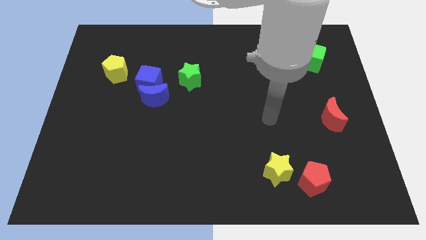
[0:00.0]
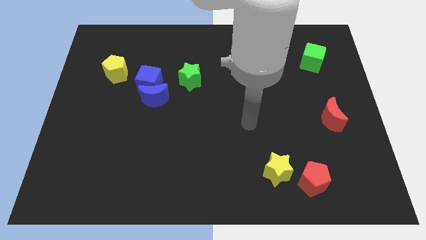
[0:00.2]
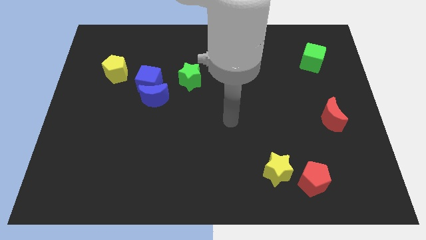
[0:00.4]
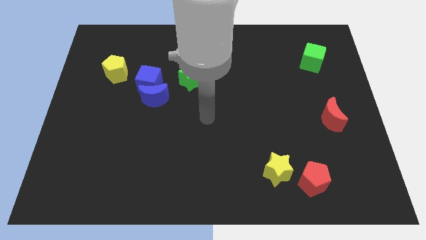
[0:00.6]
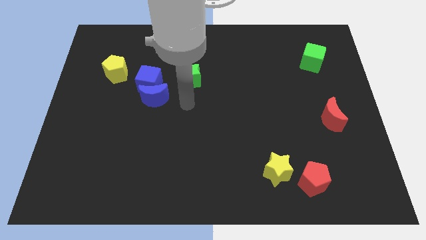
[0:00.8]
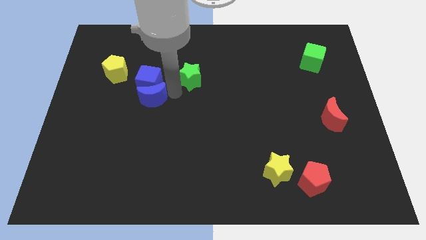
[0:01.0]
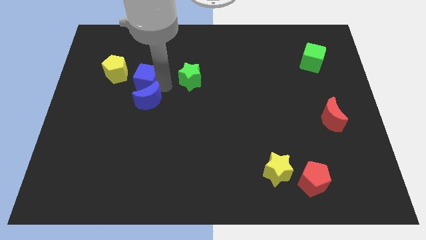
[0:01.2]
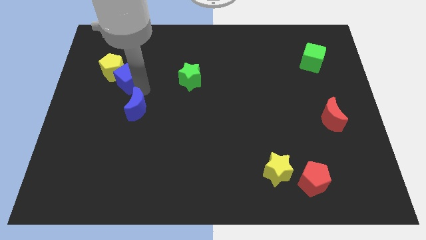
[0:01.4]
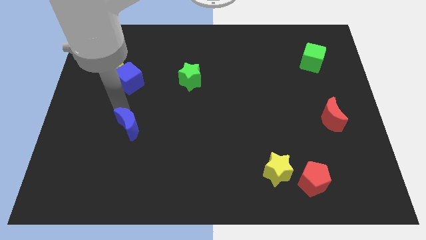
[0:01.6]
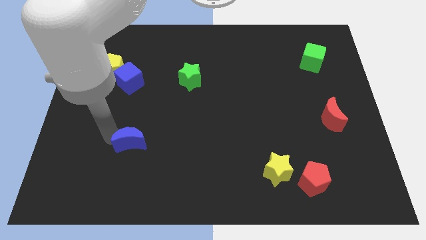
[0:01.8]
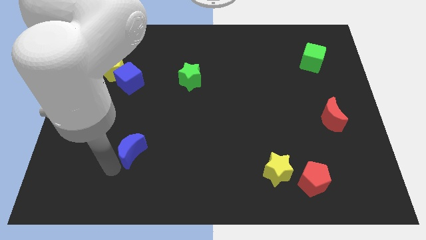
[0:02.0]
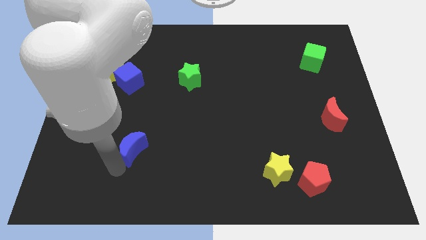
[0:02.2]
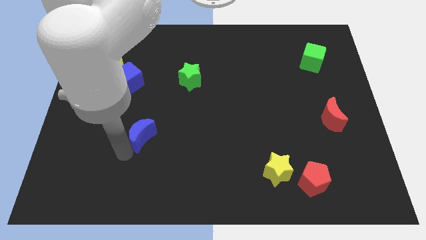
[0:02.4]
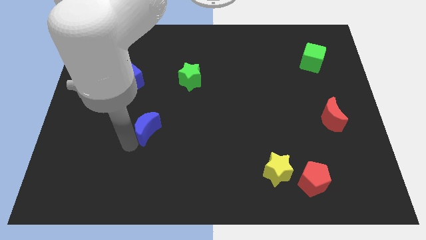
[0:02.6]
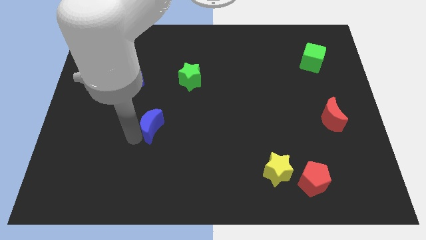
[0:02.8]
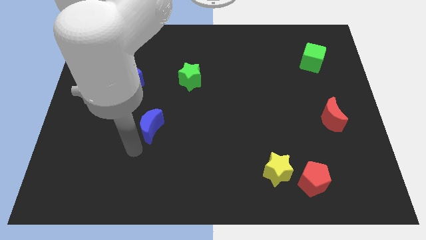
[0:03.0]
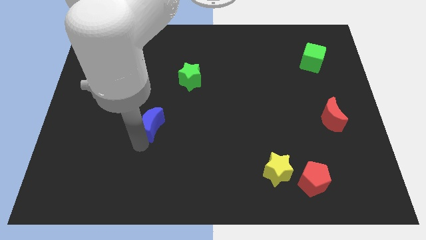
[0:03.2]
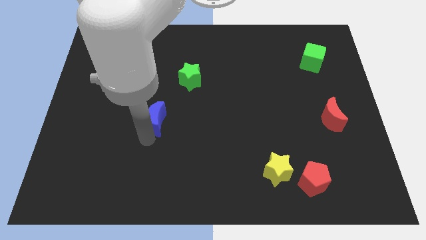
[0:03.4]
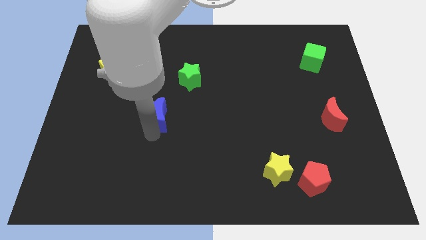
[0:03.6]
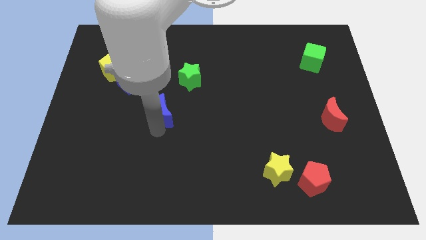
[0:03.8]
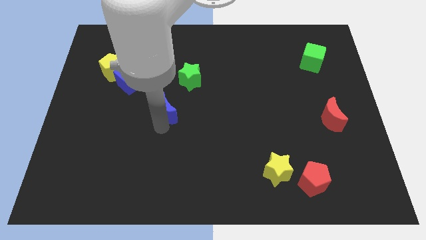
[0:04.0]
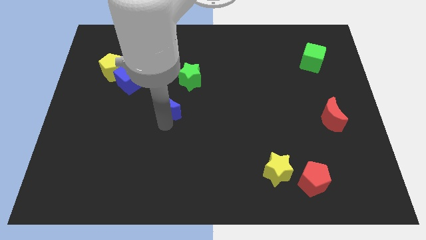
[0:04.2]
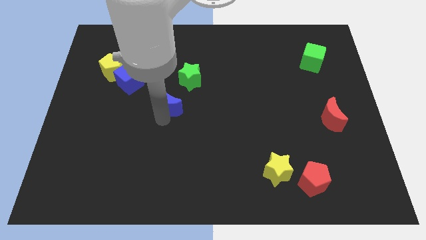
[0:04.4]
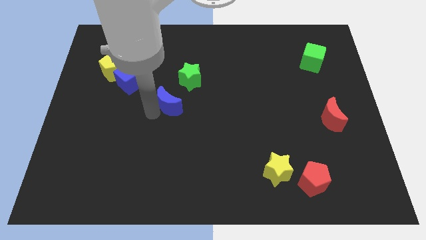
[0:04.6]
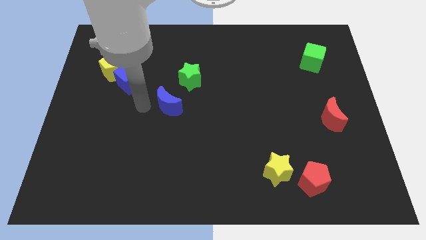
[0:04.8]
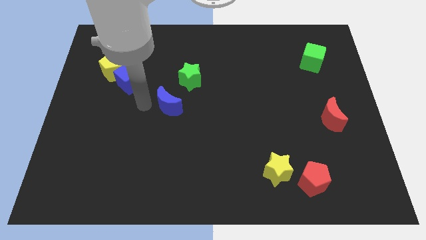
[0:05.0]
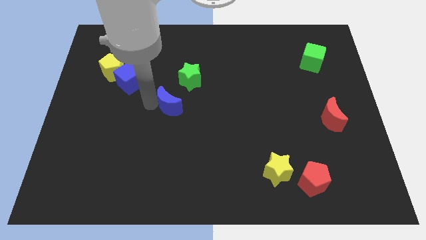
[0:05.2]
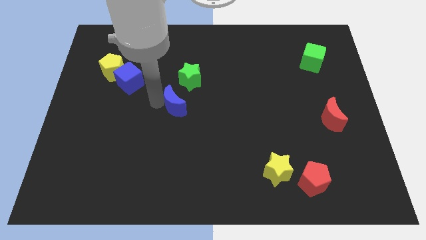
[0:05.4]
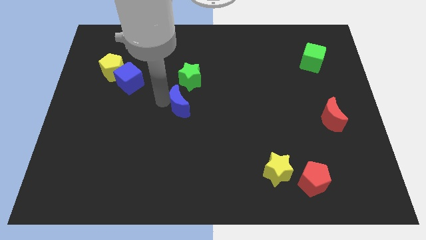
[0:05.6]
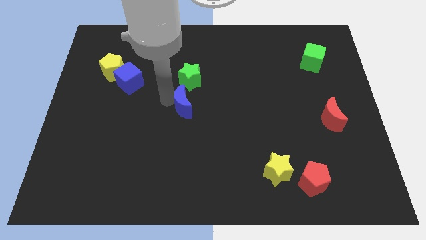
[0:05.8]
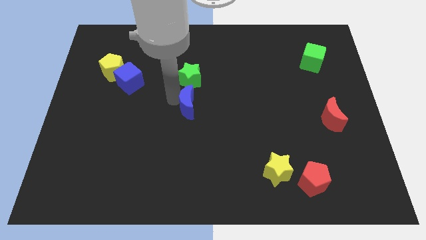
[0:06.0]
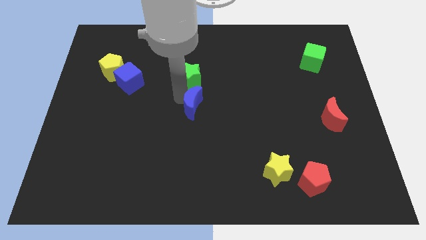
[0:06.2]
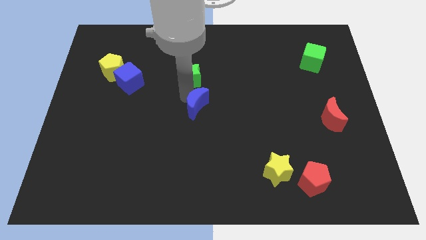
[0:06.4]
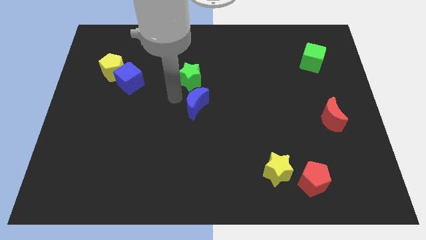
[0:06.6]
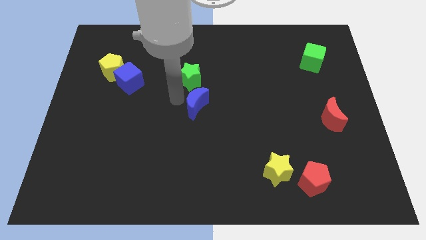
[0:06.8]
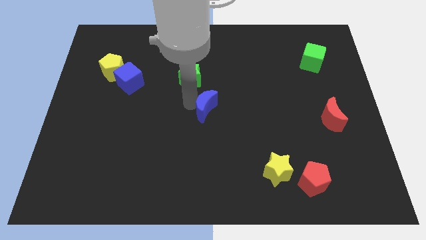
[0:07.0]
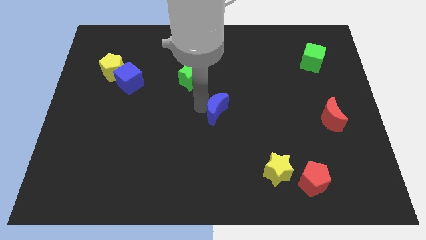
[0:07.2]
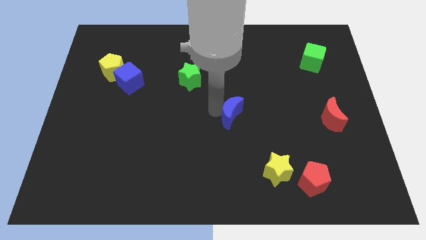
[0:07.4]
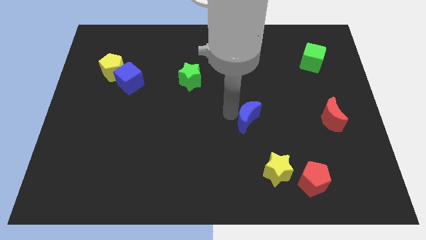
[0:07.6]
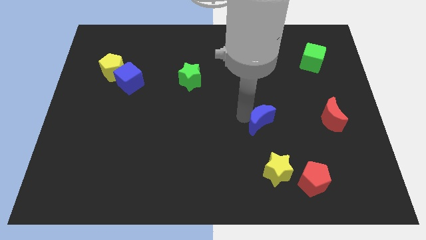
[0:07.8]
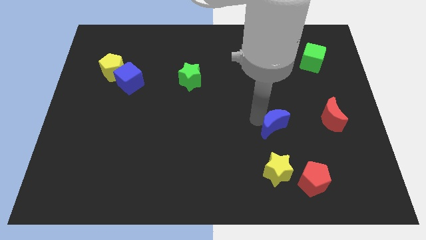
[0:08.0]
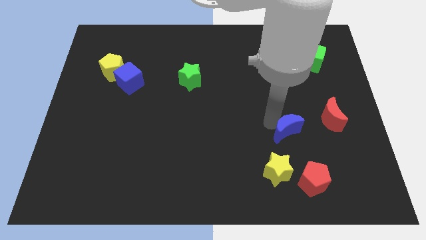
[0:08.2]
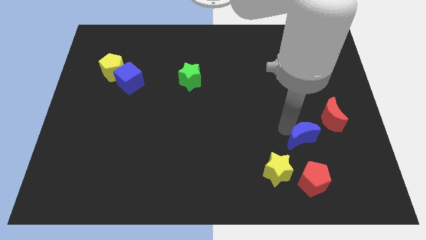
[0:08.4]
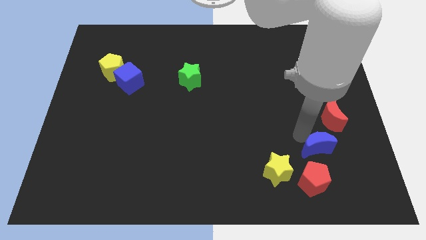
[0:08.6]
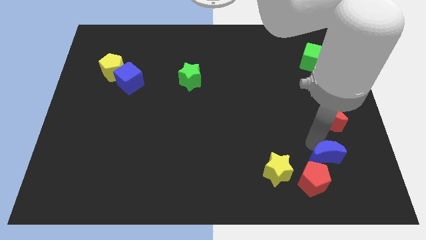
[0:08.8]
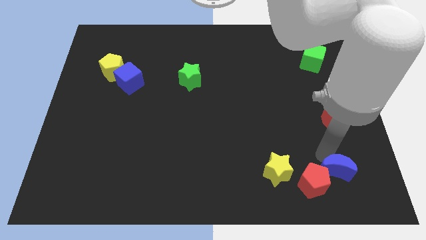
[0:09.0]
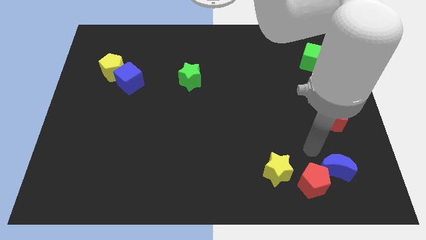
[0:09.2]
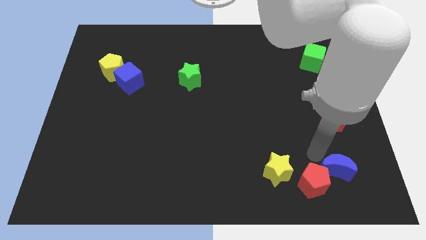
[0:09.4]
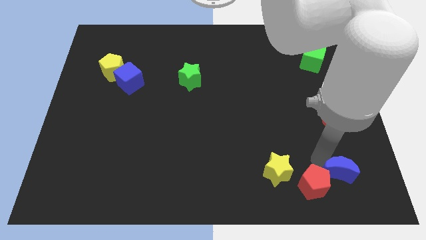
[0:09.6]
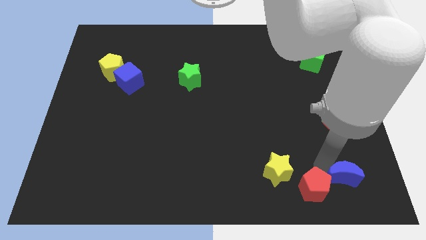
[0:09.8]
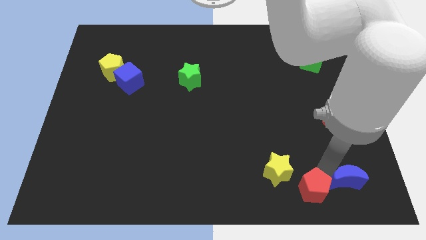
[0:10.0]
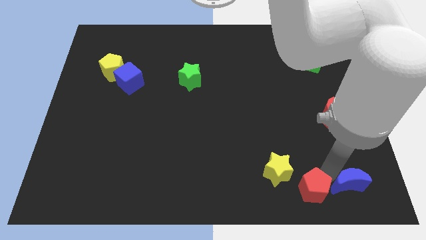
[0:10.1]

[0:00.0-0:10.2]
move the blue moon to the lower right corner
